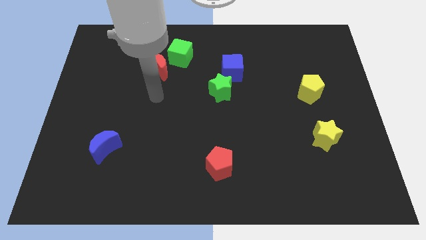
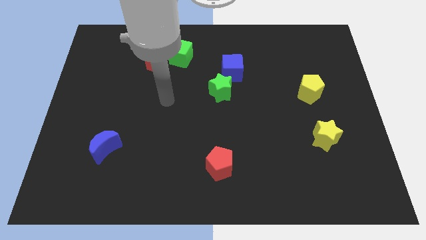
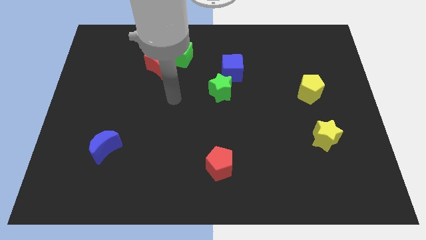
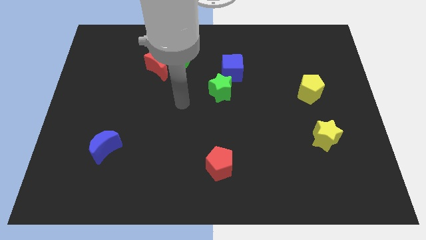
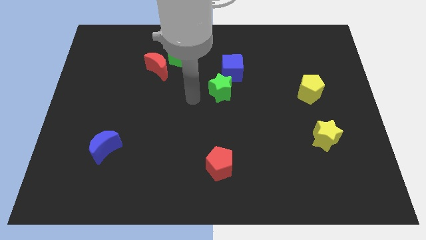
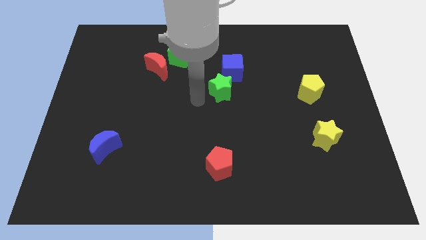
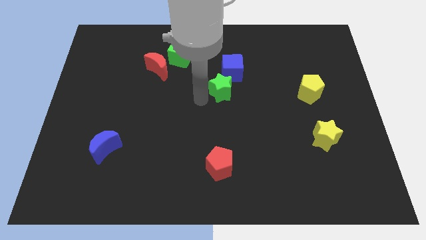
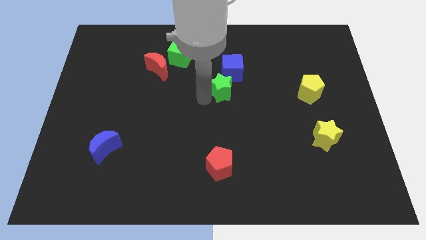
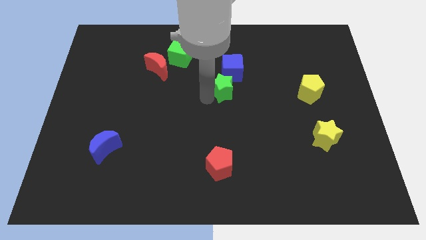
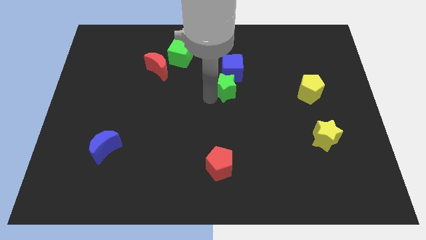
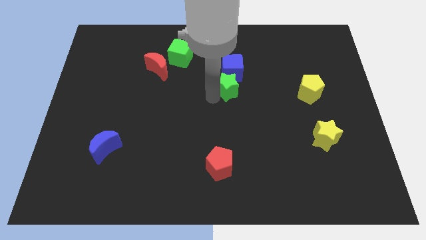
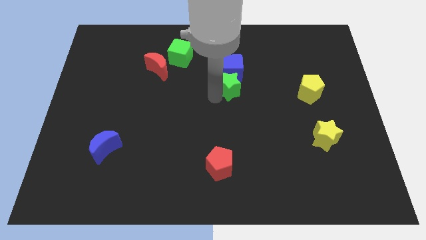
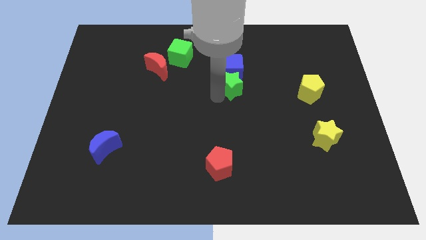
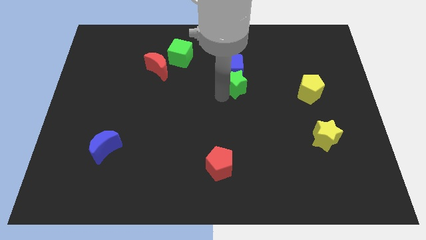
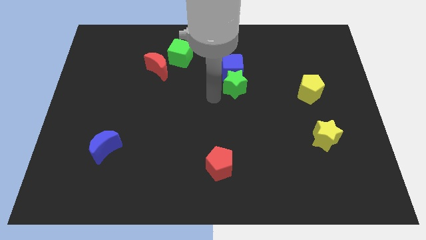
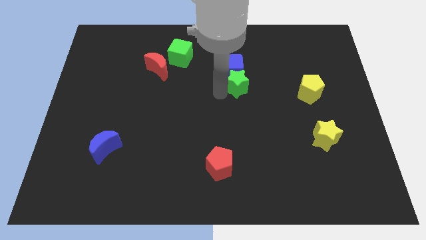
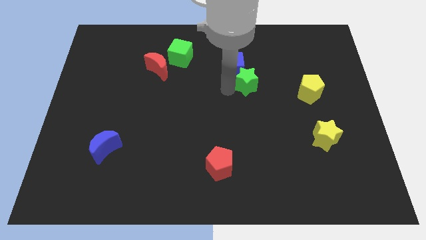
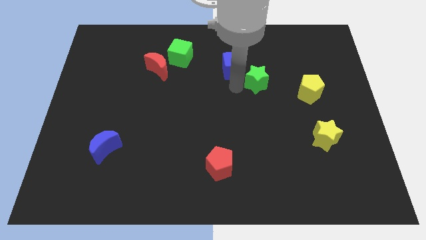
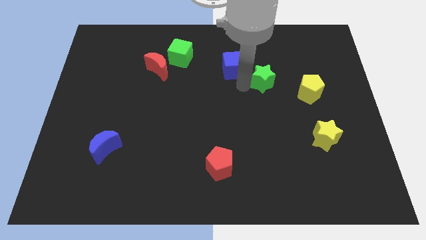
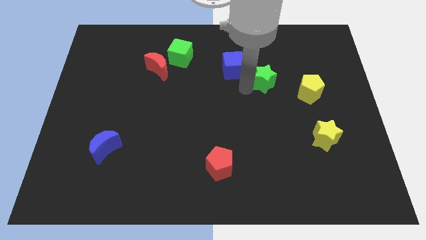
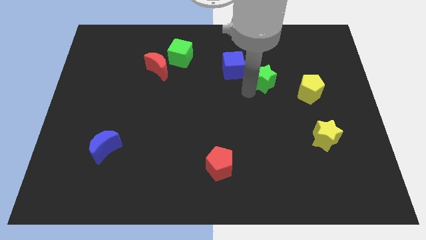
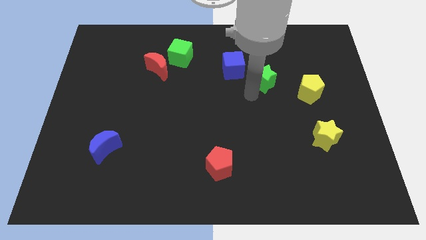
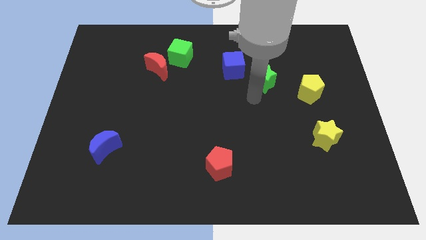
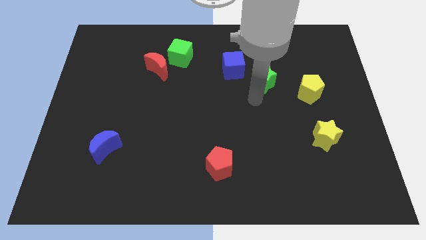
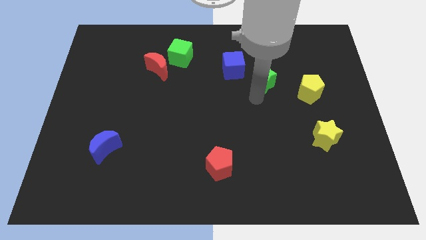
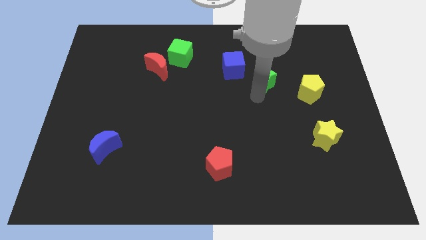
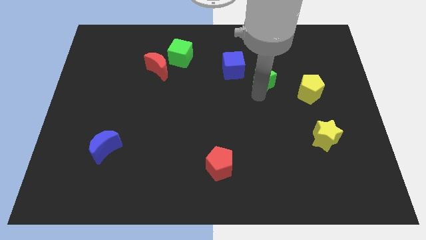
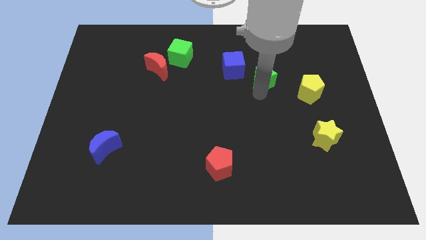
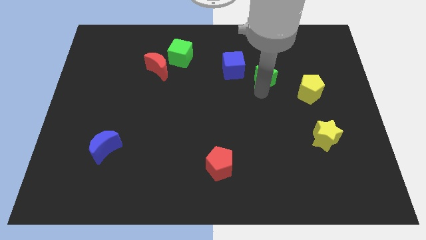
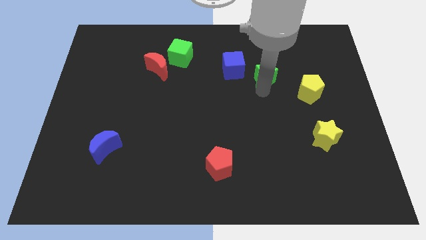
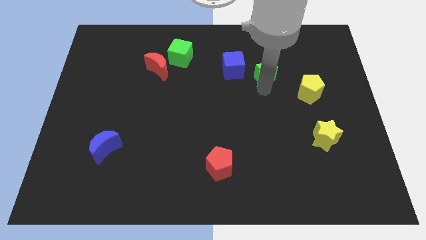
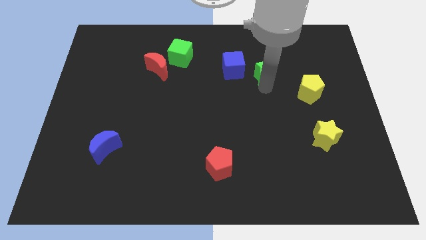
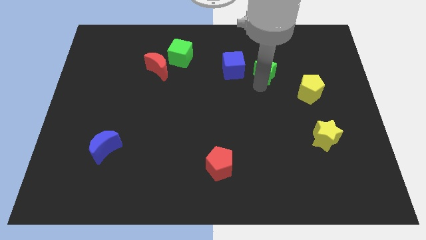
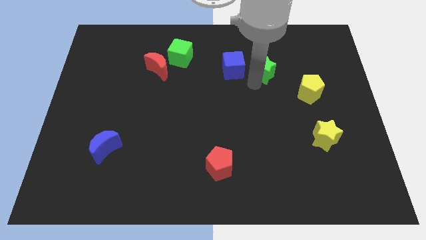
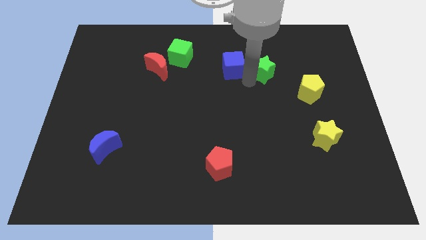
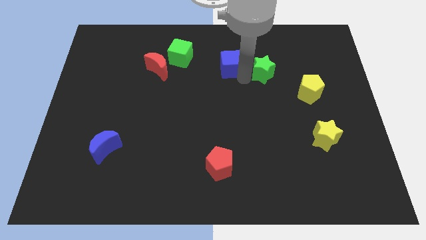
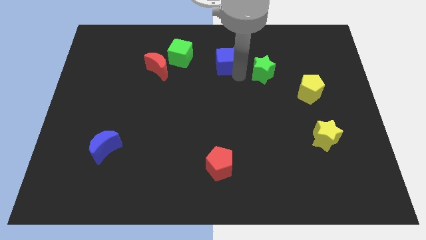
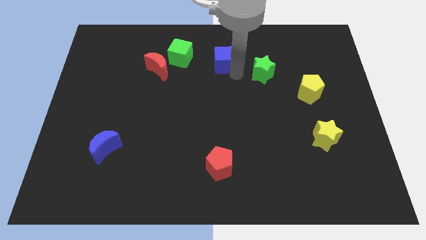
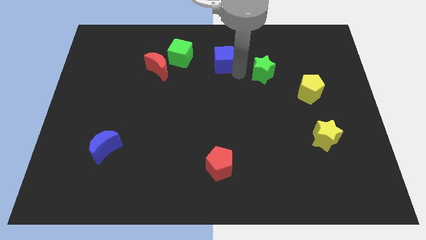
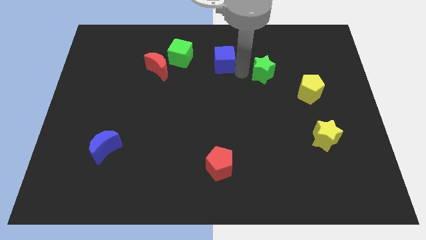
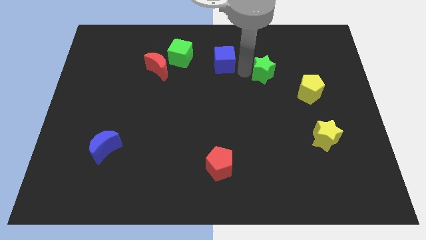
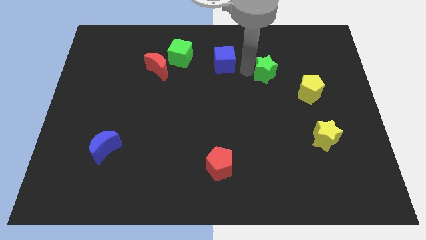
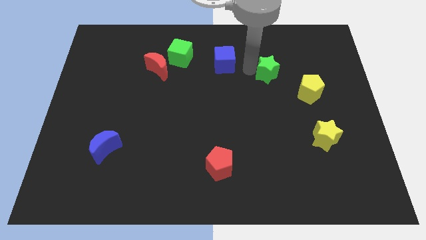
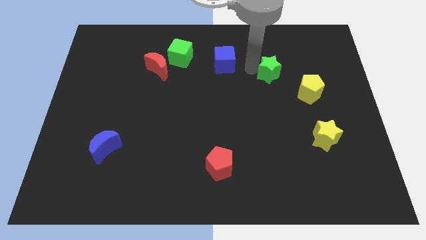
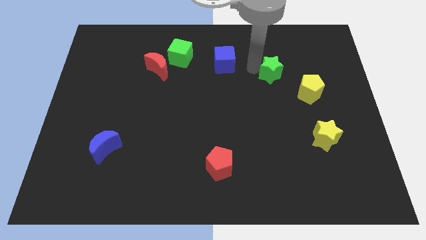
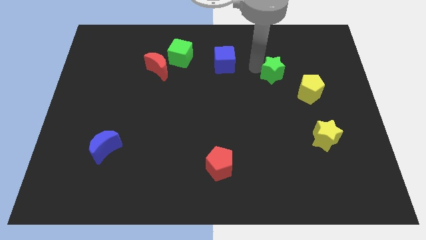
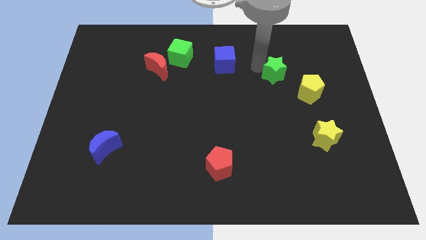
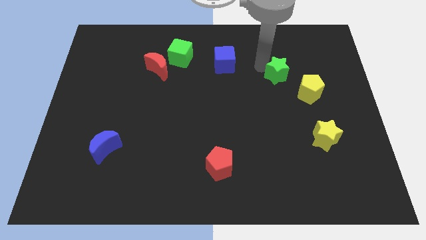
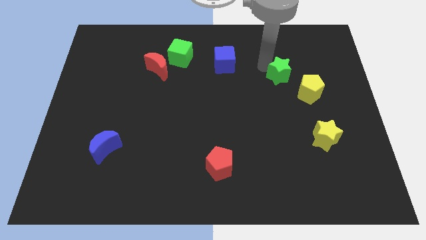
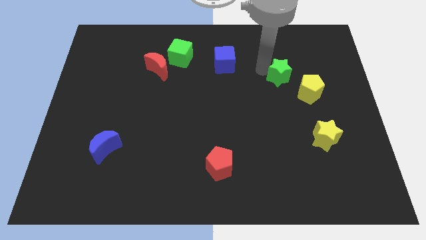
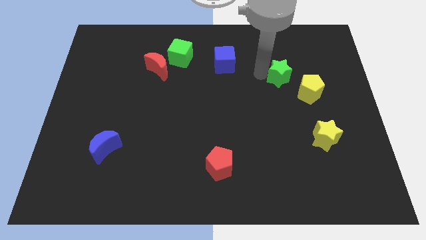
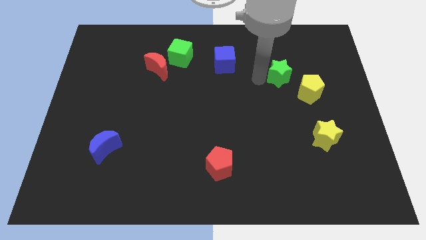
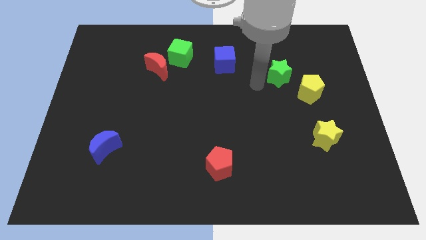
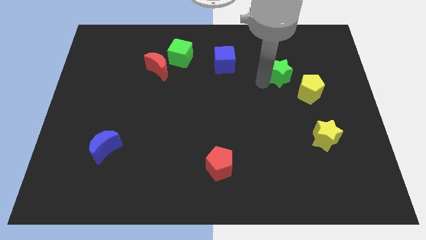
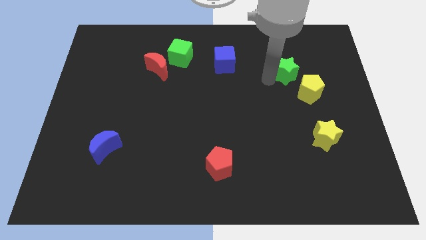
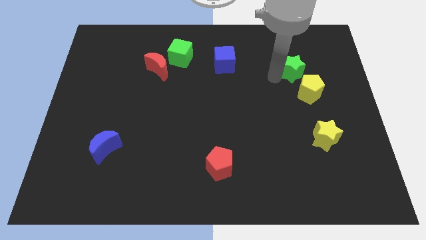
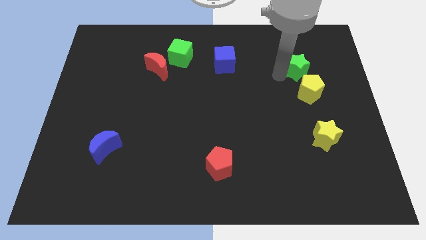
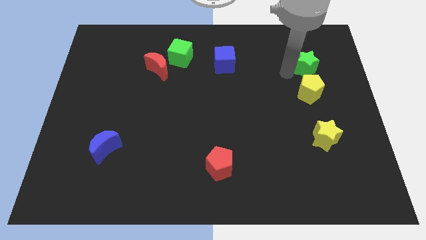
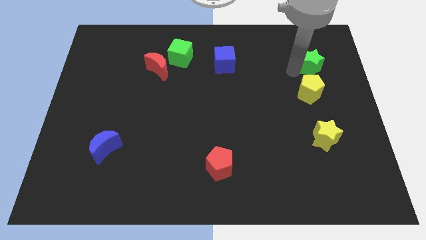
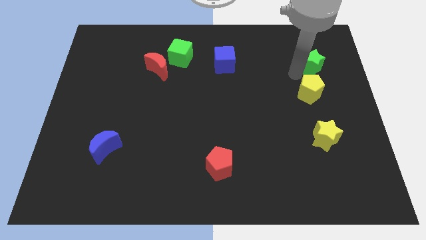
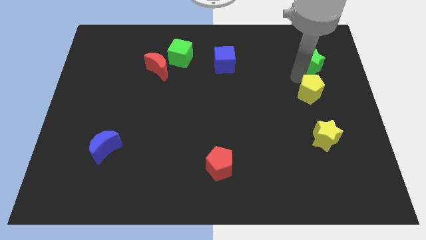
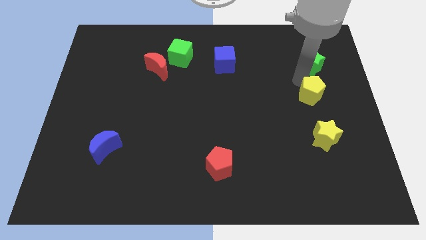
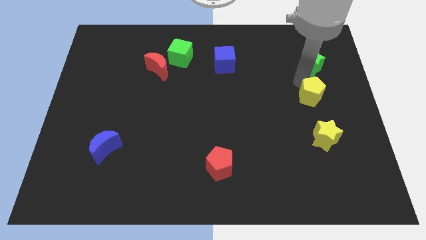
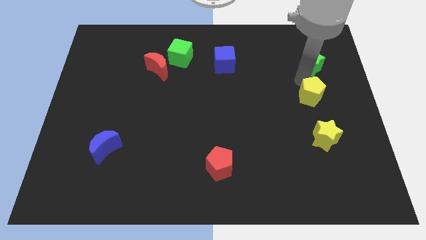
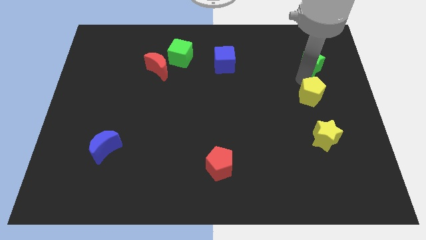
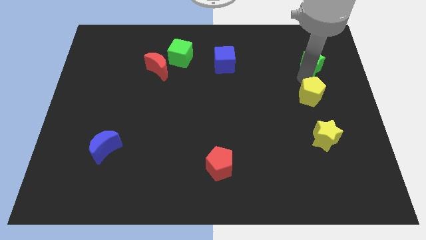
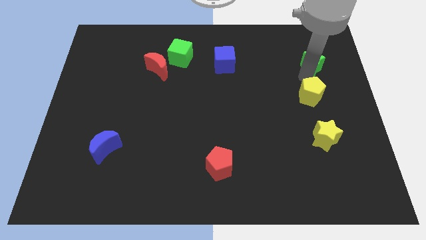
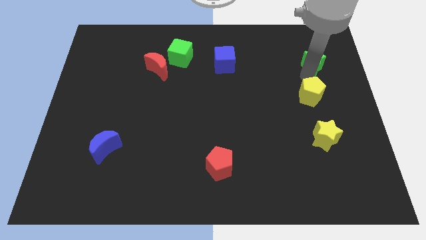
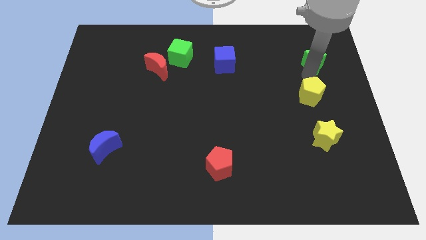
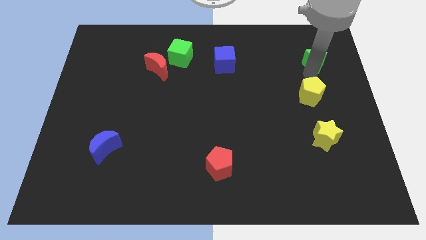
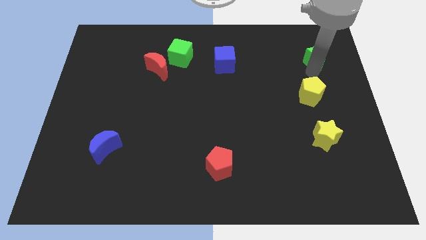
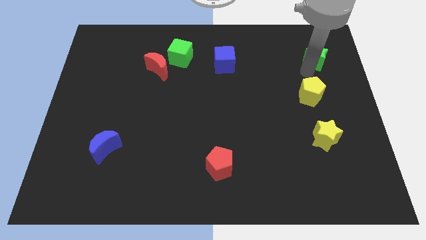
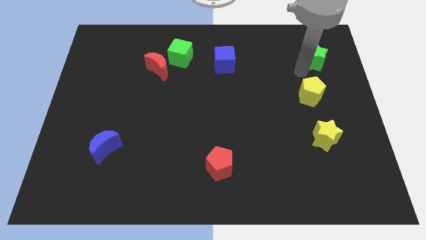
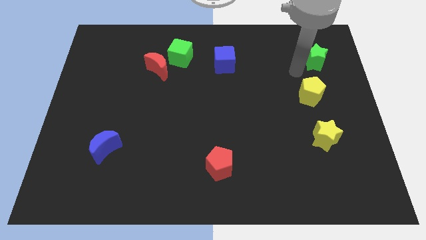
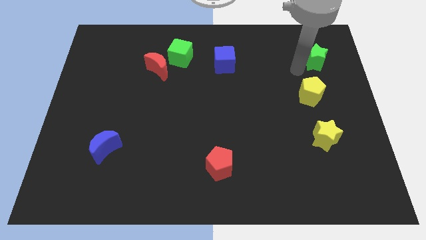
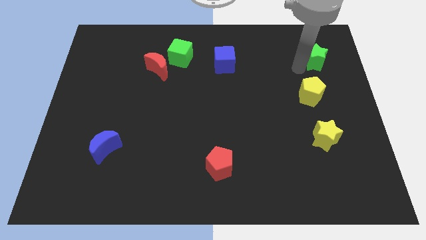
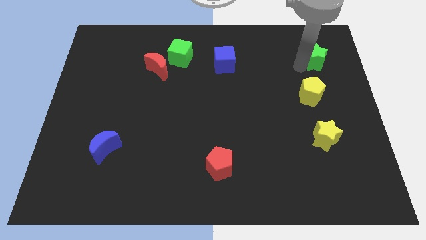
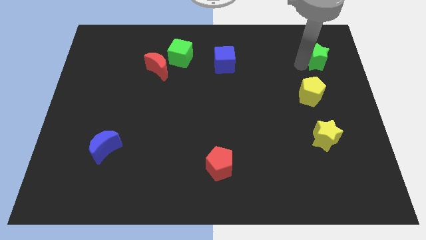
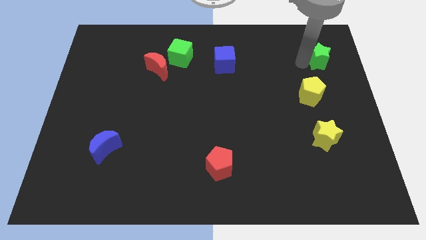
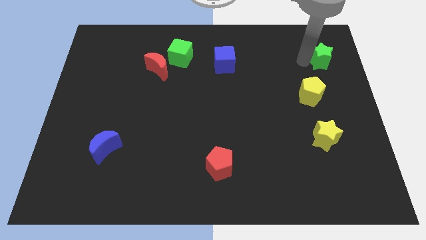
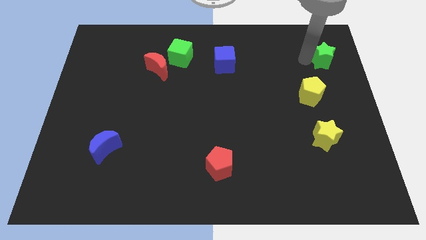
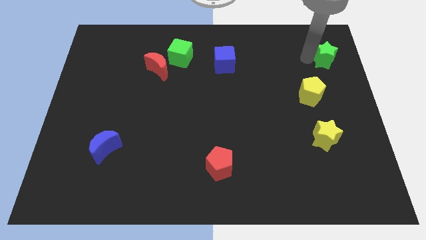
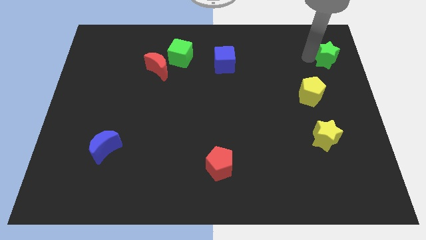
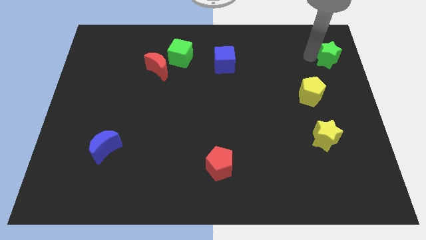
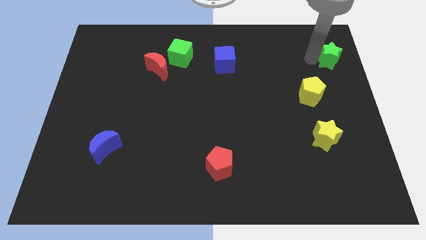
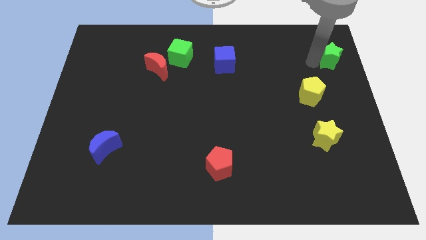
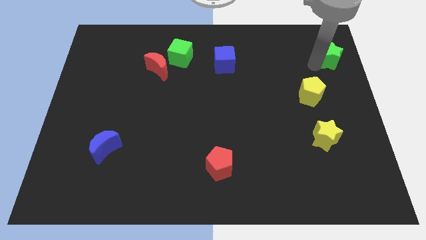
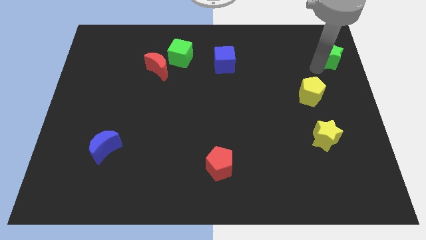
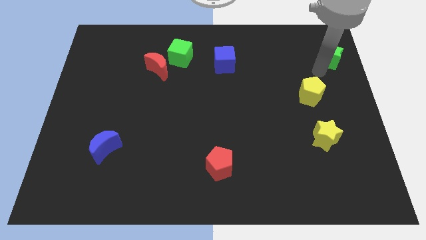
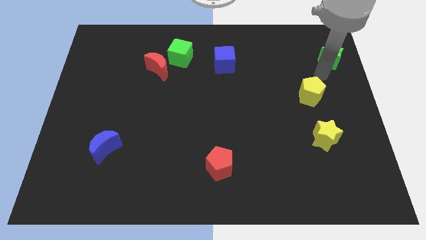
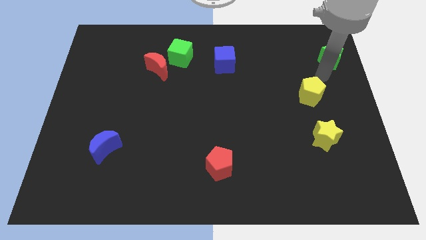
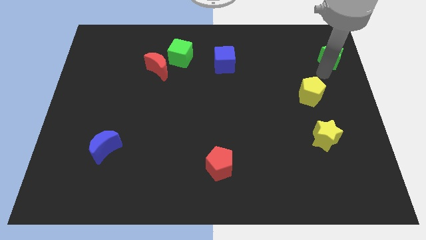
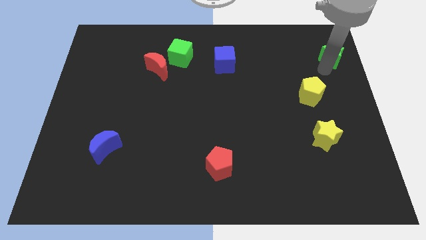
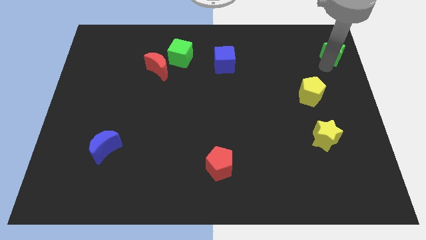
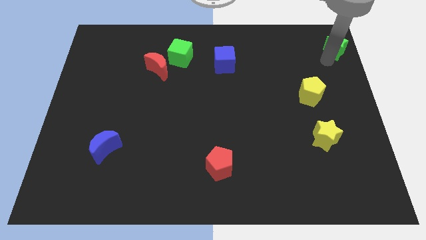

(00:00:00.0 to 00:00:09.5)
push the green star to the top right
